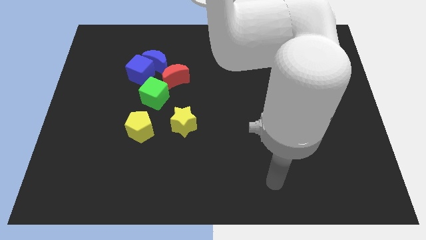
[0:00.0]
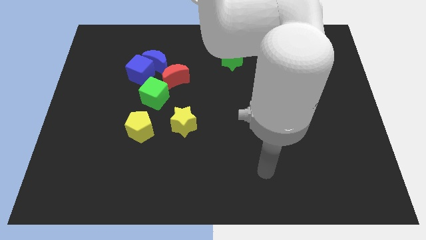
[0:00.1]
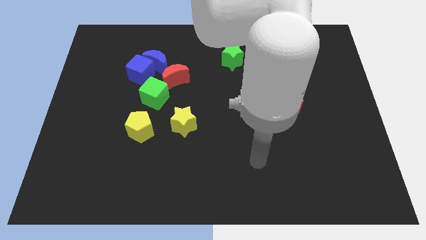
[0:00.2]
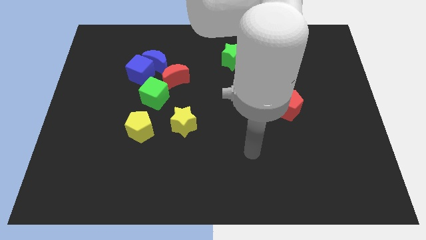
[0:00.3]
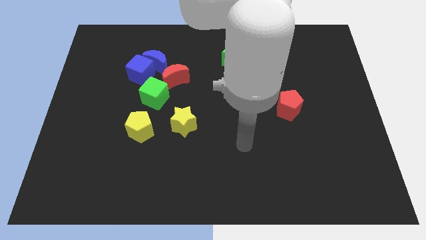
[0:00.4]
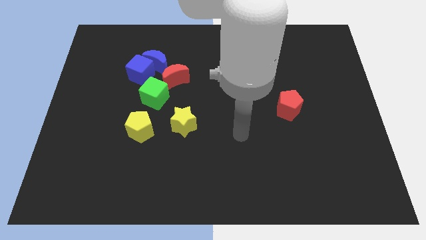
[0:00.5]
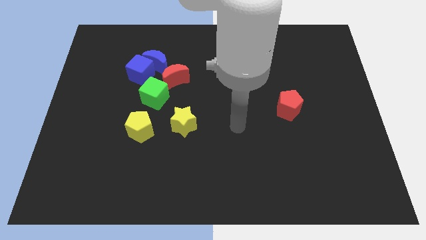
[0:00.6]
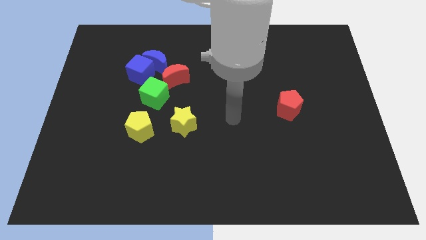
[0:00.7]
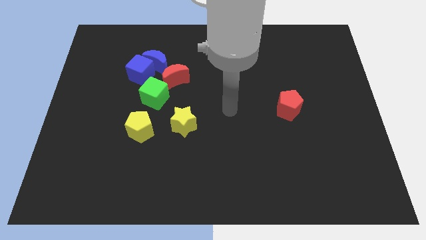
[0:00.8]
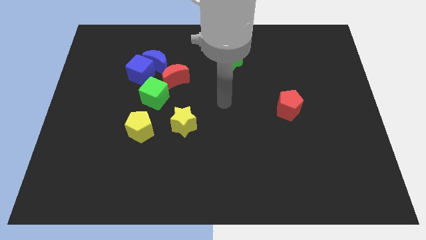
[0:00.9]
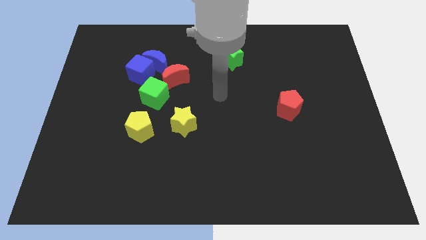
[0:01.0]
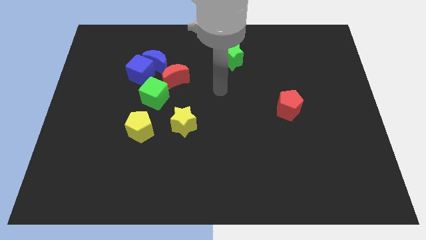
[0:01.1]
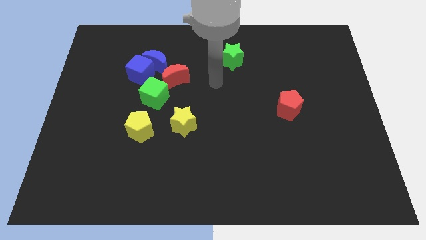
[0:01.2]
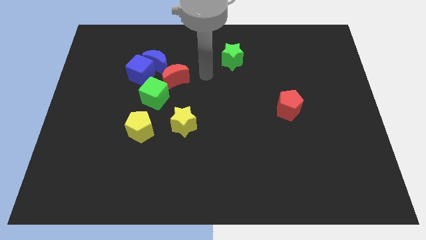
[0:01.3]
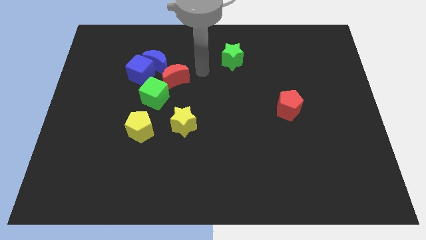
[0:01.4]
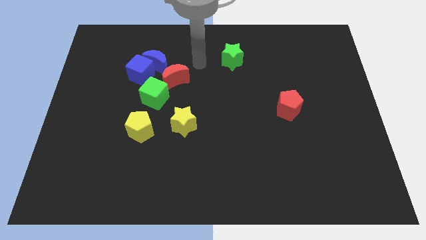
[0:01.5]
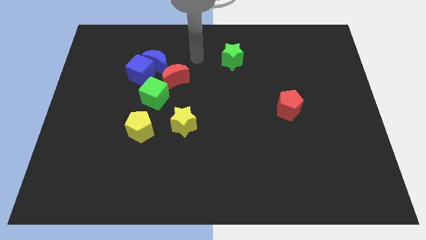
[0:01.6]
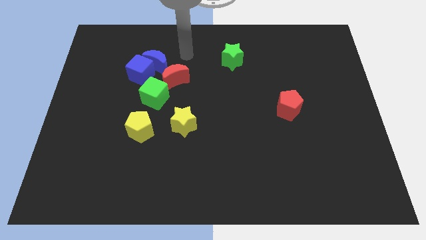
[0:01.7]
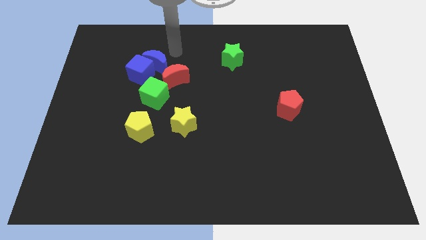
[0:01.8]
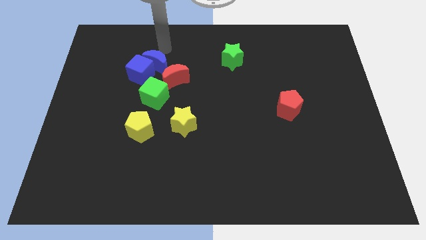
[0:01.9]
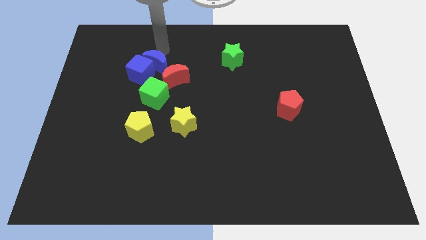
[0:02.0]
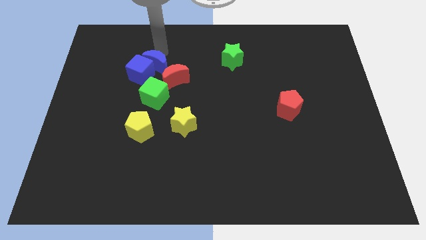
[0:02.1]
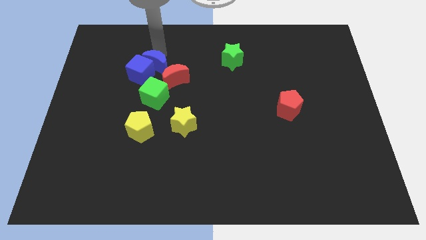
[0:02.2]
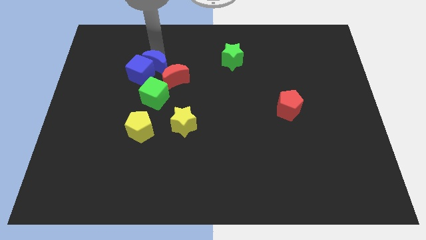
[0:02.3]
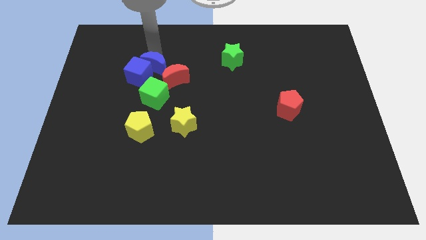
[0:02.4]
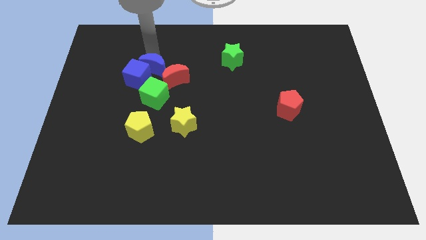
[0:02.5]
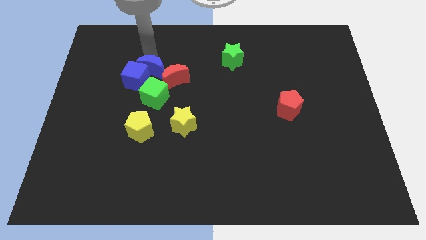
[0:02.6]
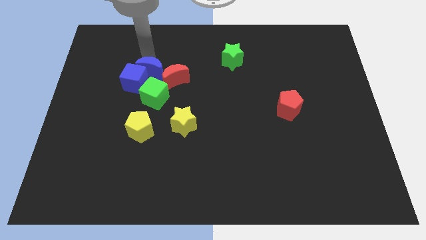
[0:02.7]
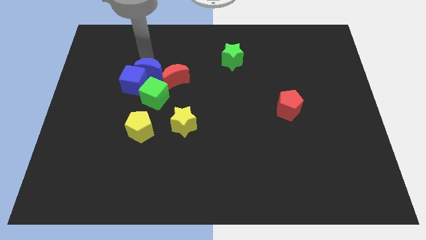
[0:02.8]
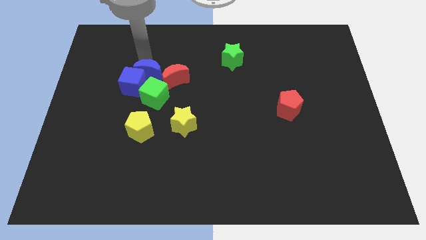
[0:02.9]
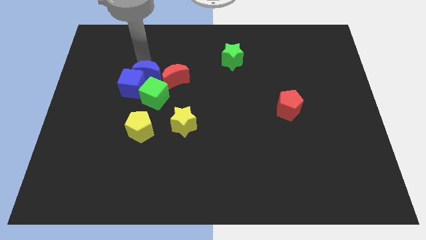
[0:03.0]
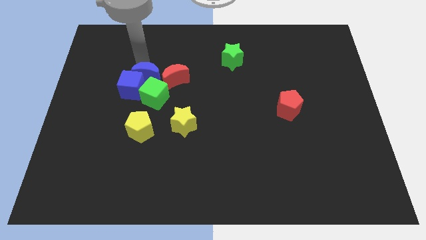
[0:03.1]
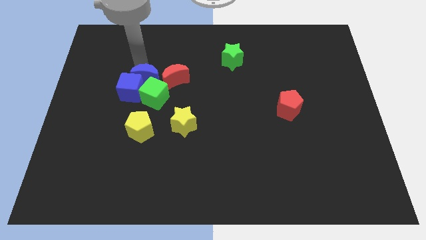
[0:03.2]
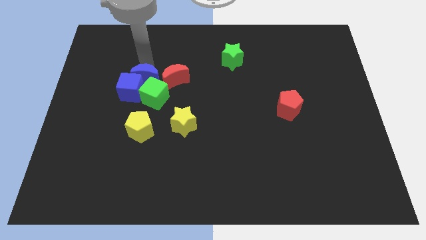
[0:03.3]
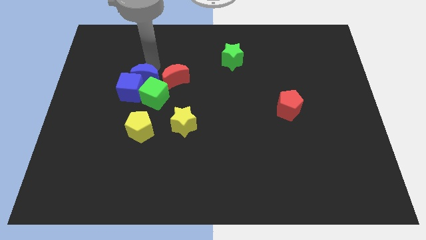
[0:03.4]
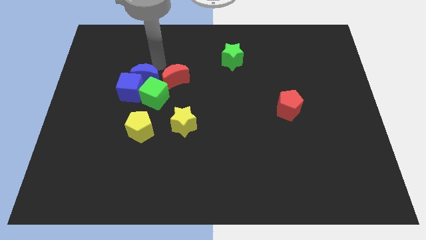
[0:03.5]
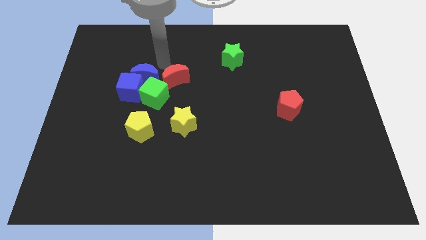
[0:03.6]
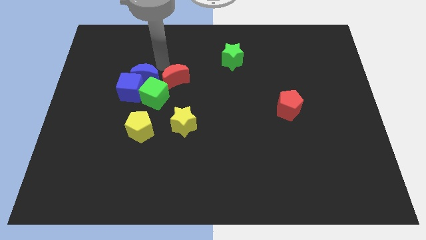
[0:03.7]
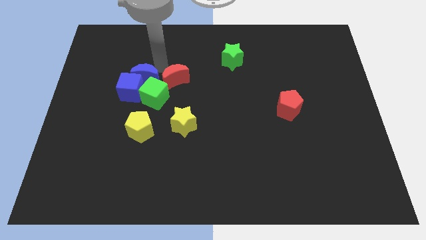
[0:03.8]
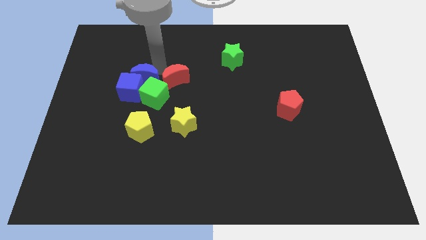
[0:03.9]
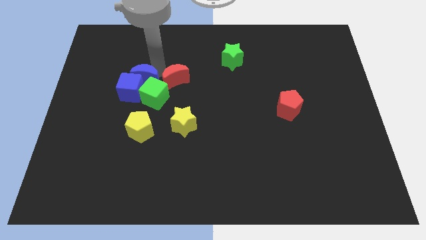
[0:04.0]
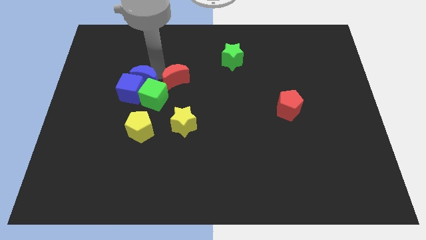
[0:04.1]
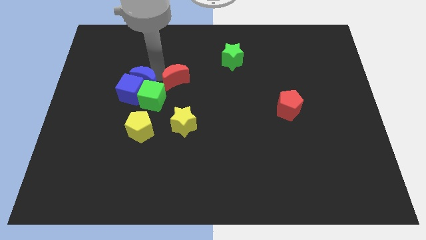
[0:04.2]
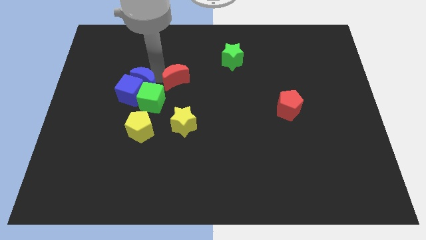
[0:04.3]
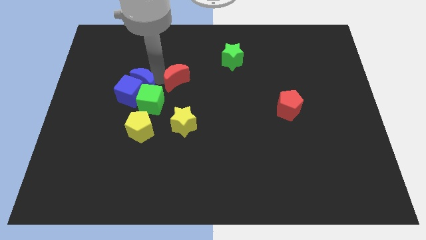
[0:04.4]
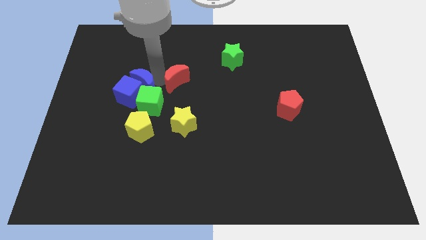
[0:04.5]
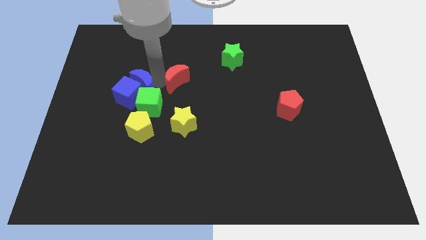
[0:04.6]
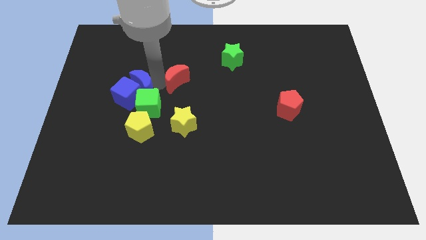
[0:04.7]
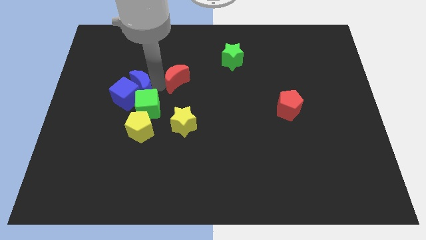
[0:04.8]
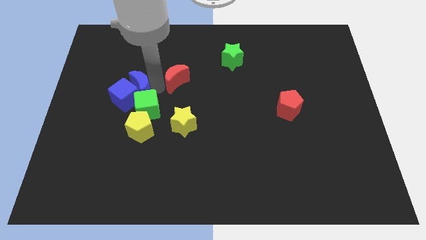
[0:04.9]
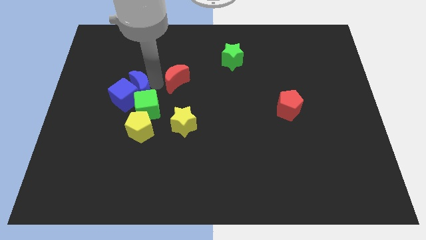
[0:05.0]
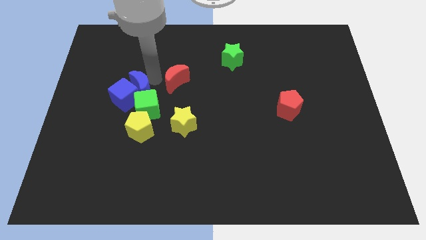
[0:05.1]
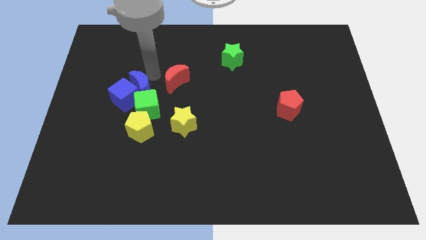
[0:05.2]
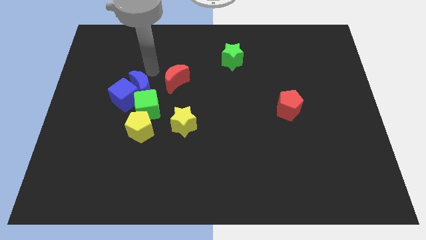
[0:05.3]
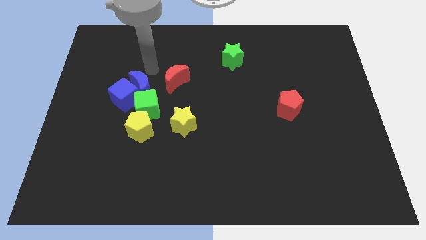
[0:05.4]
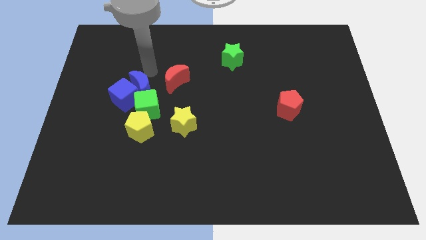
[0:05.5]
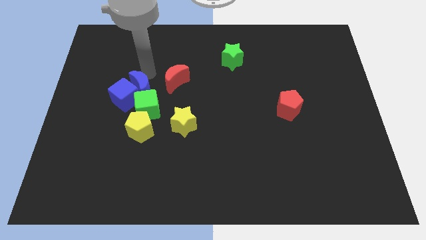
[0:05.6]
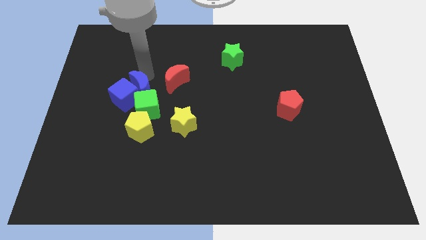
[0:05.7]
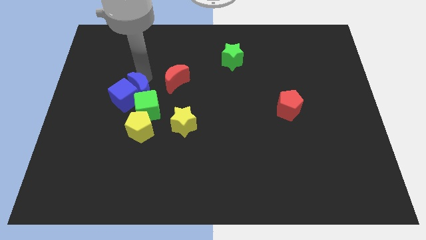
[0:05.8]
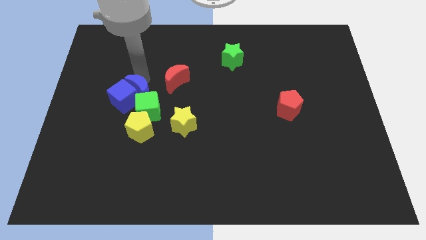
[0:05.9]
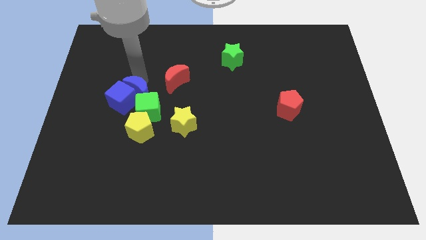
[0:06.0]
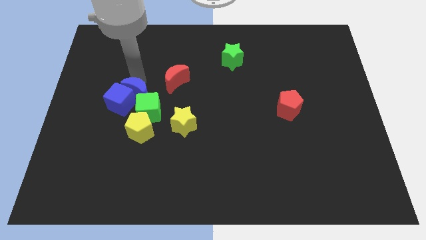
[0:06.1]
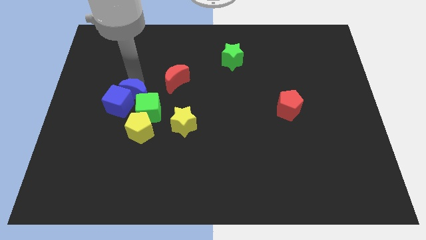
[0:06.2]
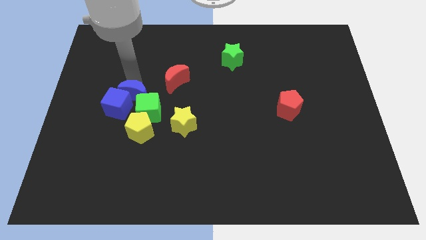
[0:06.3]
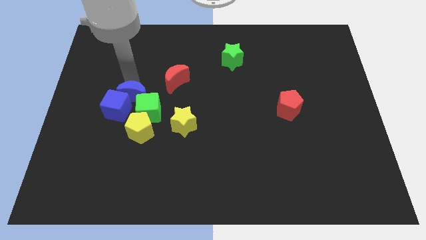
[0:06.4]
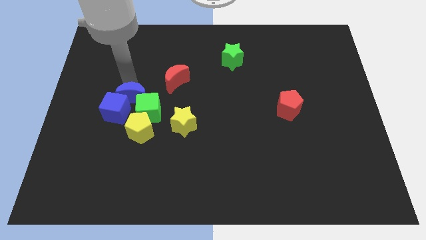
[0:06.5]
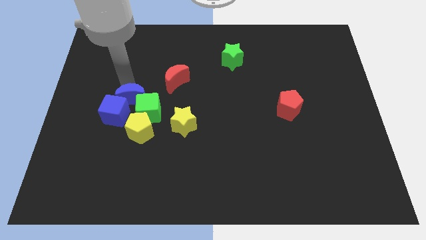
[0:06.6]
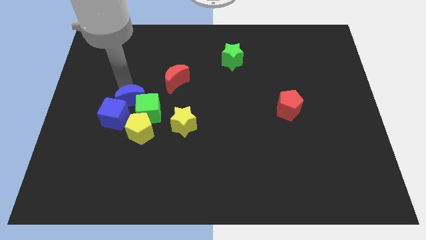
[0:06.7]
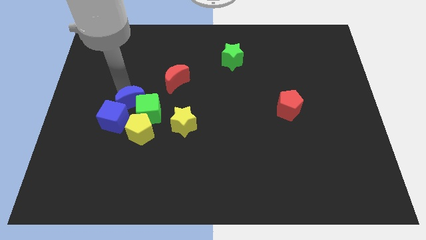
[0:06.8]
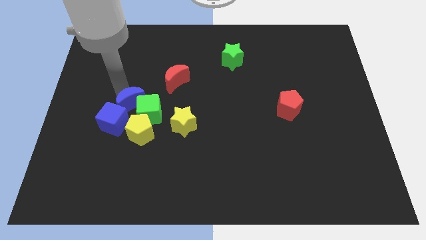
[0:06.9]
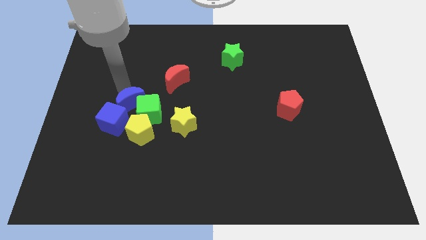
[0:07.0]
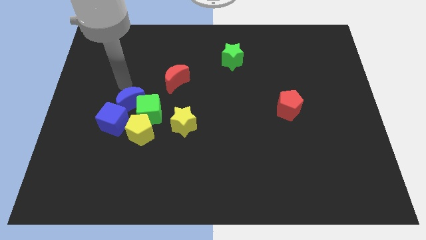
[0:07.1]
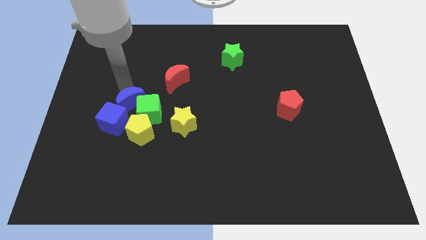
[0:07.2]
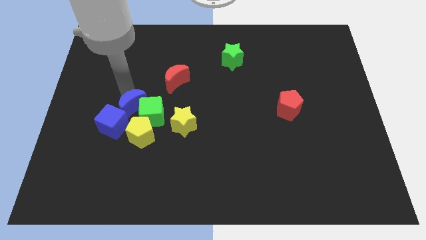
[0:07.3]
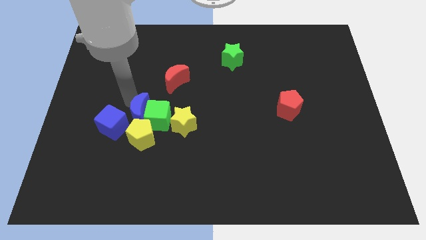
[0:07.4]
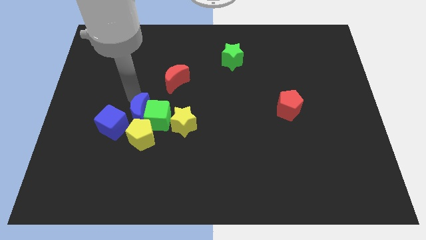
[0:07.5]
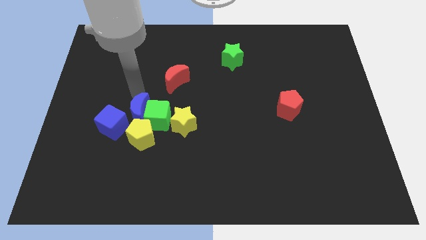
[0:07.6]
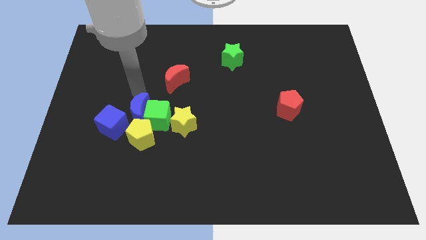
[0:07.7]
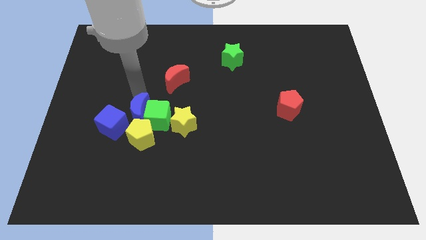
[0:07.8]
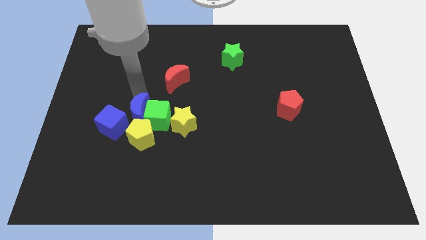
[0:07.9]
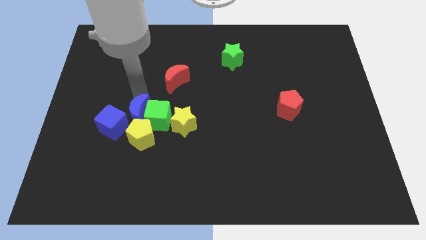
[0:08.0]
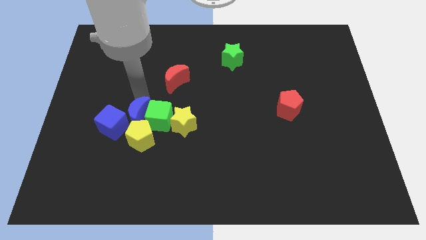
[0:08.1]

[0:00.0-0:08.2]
push the blue moon towards the yellow pentagon

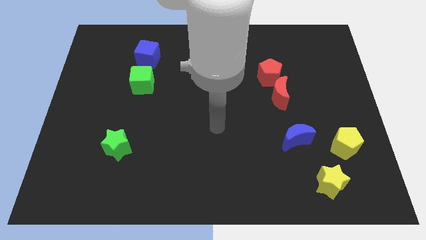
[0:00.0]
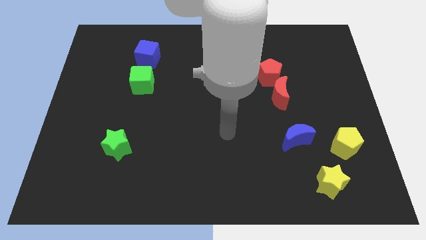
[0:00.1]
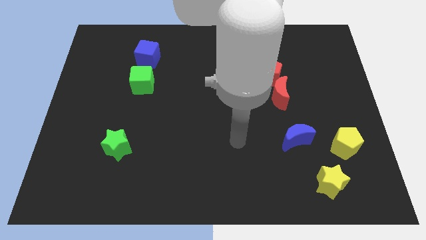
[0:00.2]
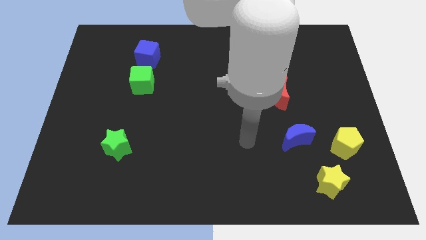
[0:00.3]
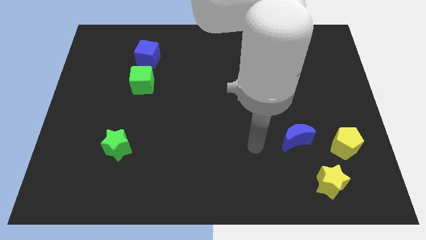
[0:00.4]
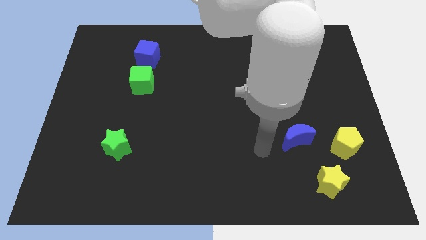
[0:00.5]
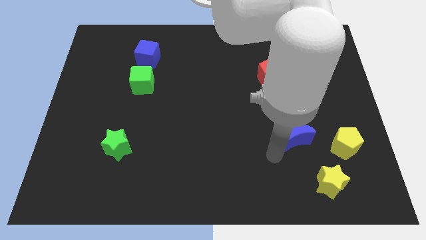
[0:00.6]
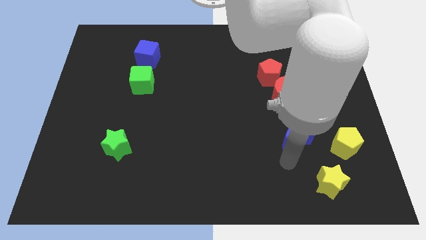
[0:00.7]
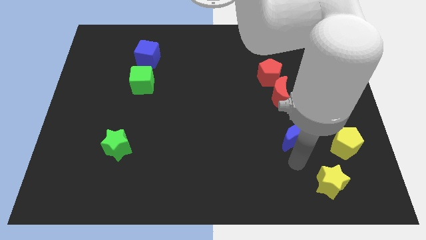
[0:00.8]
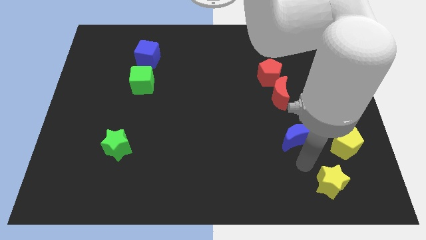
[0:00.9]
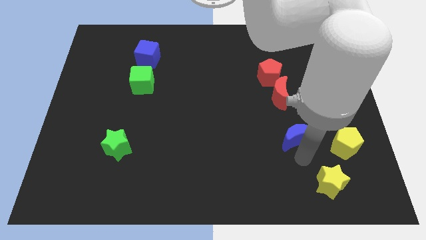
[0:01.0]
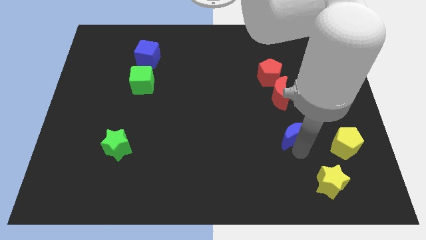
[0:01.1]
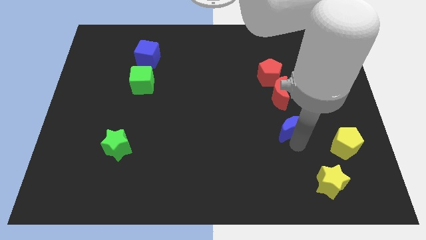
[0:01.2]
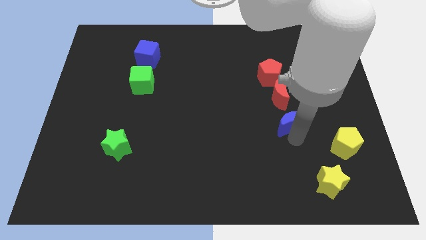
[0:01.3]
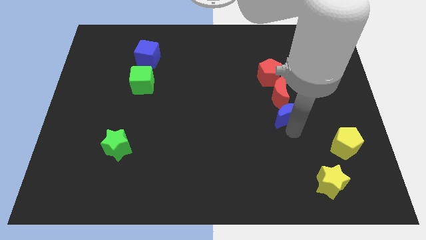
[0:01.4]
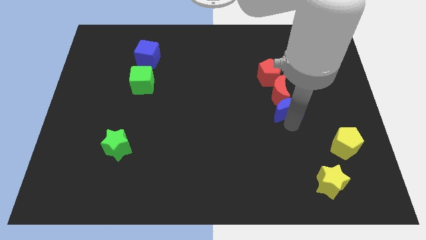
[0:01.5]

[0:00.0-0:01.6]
move the blue moon to the red moon
